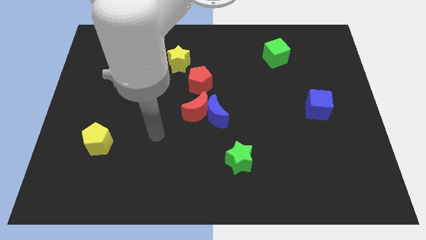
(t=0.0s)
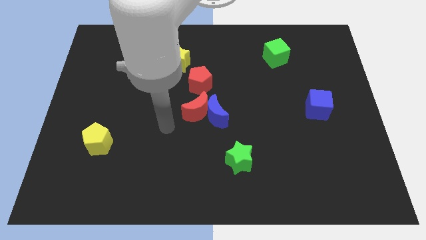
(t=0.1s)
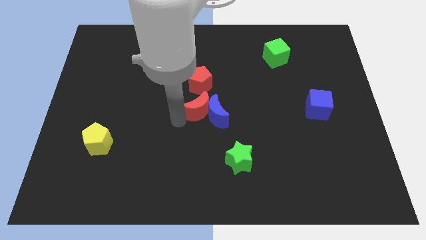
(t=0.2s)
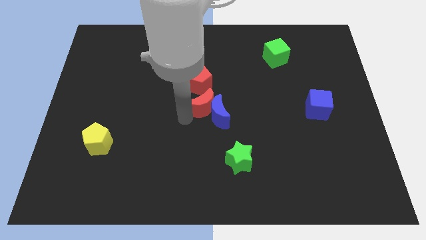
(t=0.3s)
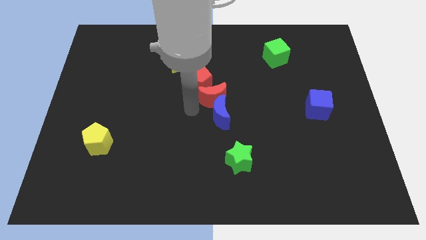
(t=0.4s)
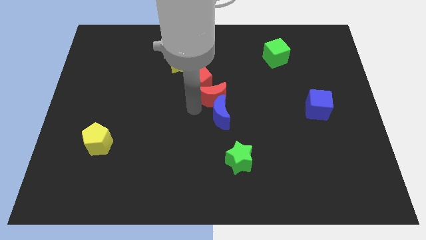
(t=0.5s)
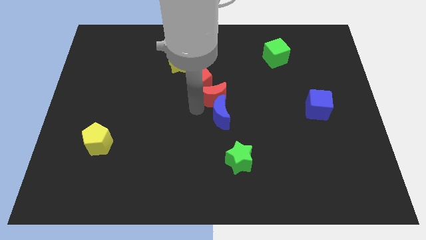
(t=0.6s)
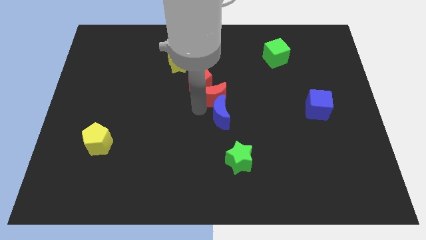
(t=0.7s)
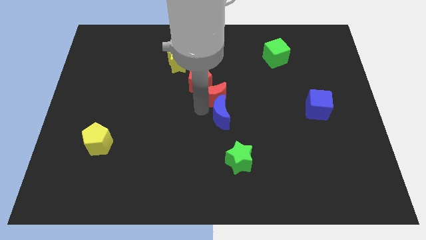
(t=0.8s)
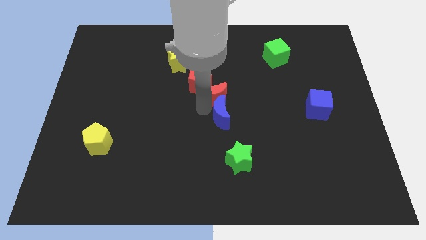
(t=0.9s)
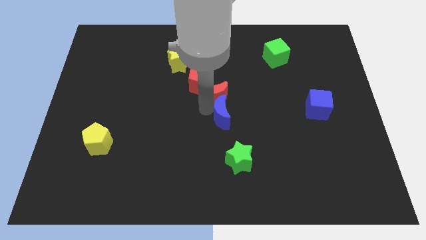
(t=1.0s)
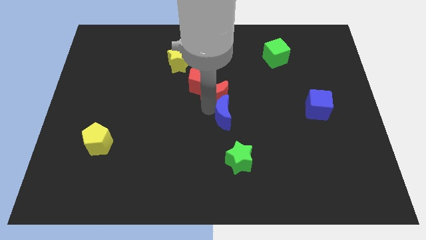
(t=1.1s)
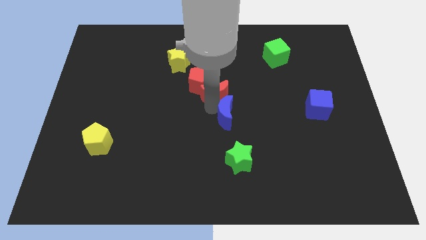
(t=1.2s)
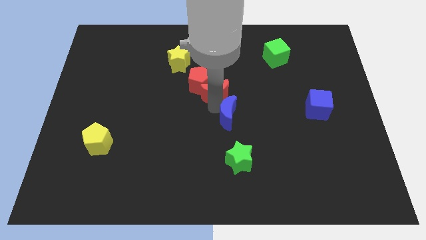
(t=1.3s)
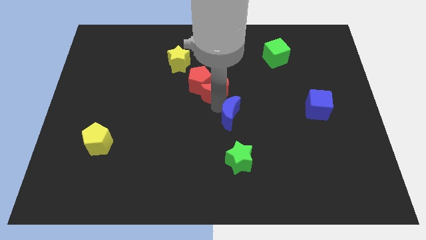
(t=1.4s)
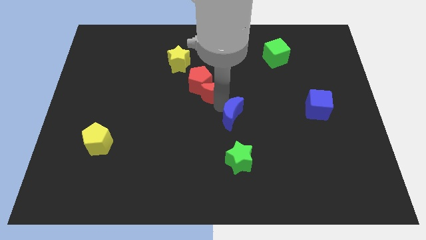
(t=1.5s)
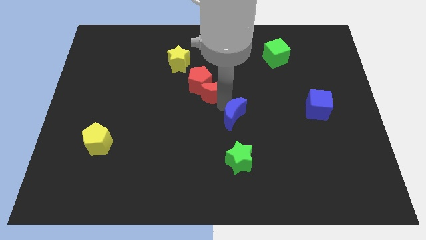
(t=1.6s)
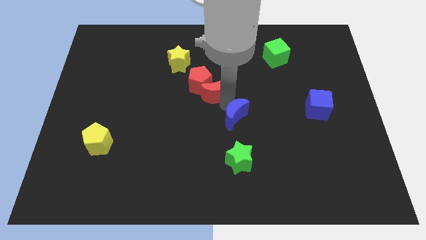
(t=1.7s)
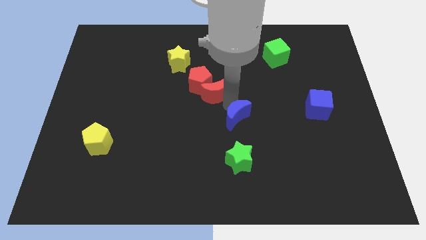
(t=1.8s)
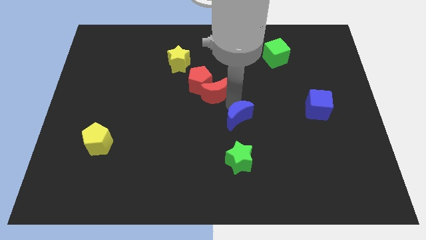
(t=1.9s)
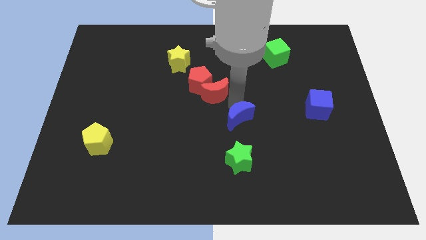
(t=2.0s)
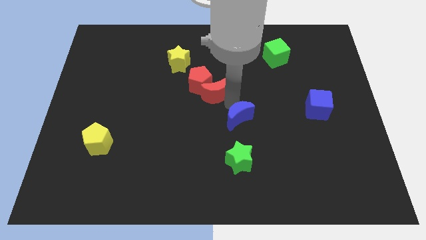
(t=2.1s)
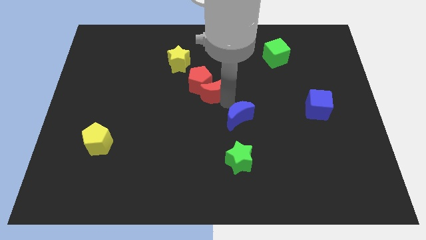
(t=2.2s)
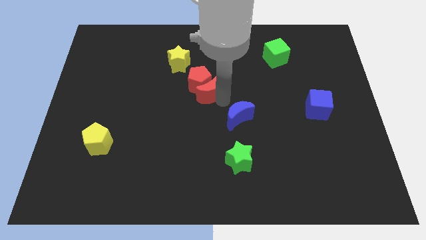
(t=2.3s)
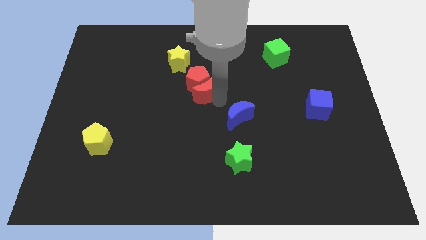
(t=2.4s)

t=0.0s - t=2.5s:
separate the blue moon from the red moon

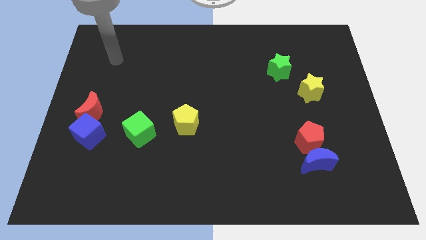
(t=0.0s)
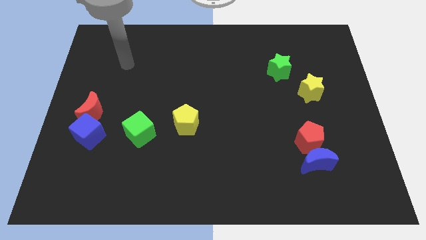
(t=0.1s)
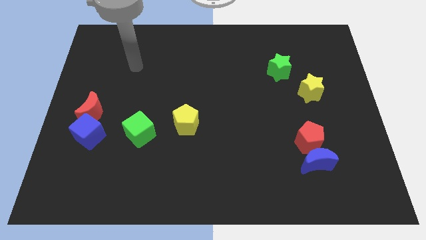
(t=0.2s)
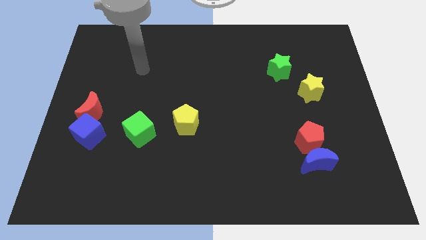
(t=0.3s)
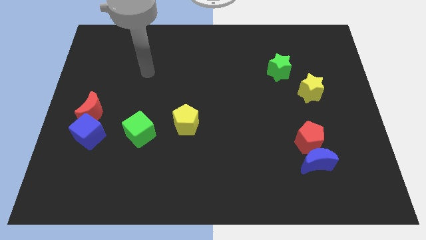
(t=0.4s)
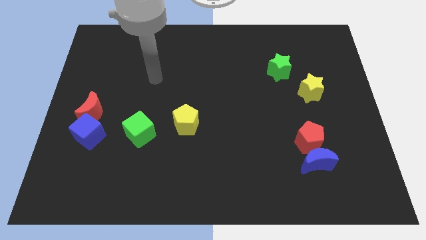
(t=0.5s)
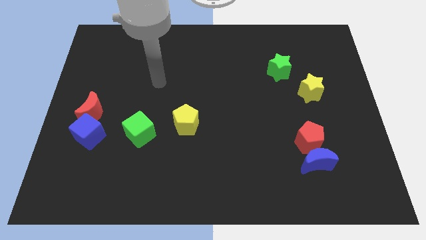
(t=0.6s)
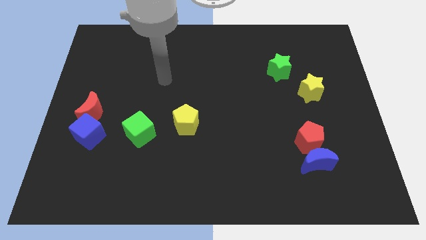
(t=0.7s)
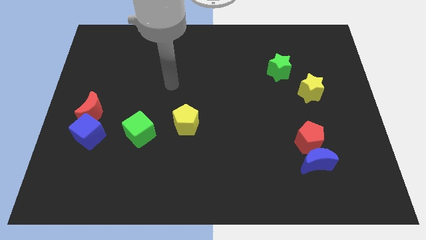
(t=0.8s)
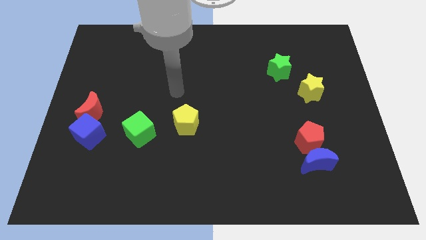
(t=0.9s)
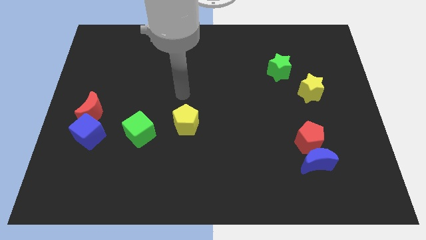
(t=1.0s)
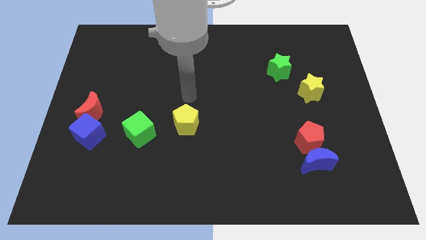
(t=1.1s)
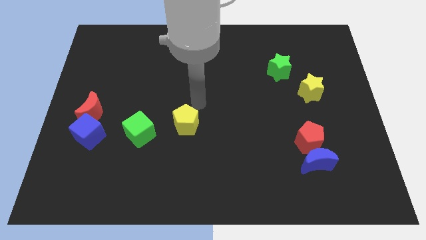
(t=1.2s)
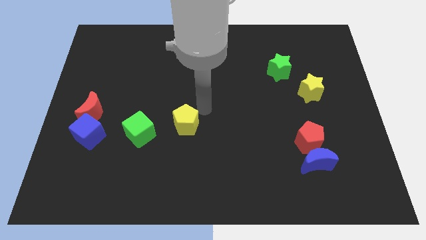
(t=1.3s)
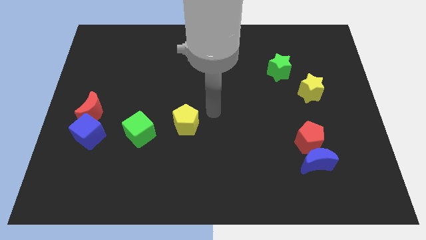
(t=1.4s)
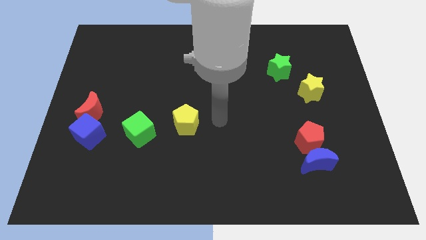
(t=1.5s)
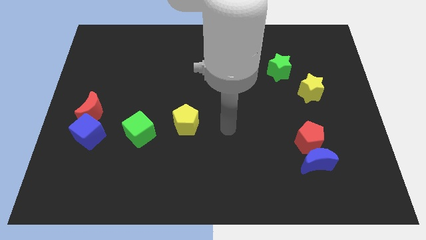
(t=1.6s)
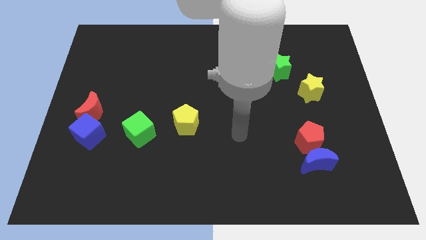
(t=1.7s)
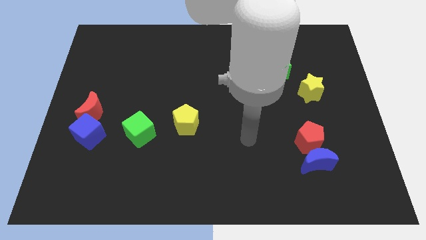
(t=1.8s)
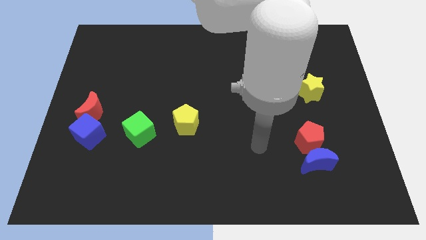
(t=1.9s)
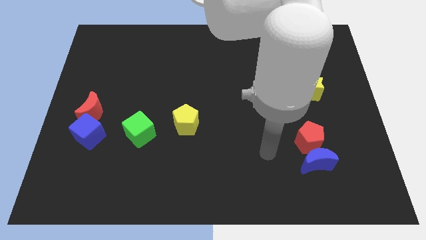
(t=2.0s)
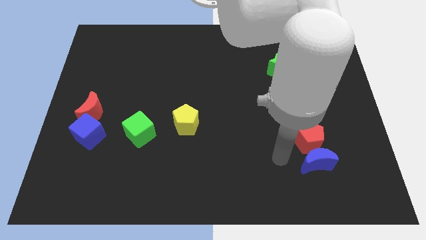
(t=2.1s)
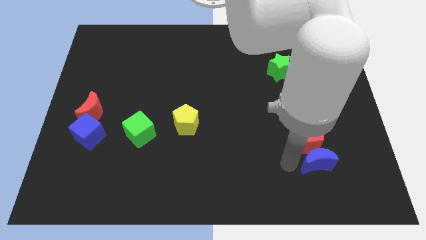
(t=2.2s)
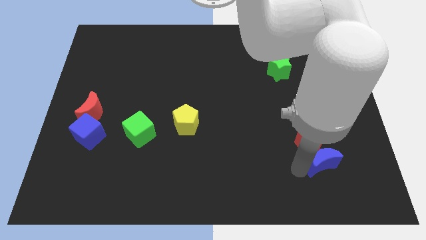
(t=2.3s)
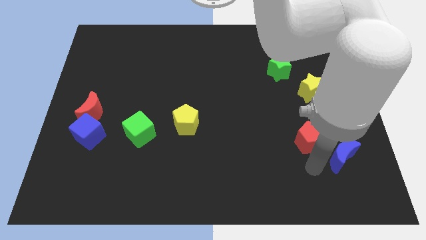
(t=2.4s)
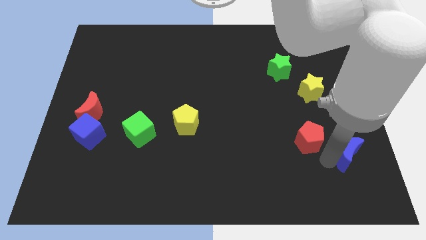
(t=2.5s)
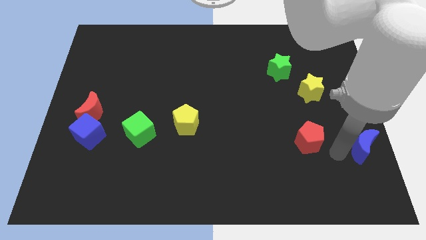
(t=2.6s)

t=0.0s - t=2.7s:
pull the red pentagon apart from the blue moon

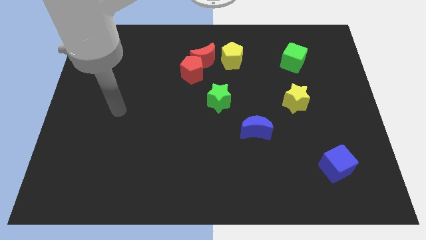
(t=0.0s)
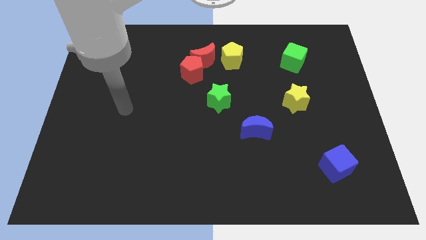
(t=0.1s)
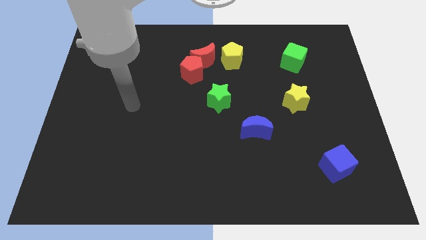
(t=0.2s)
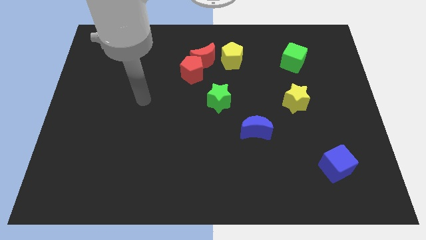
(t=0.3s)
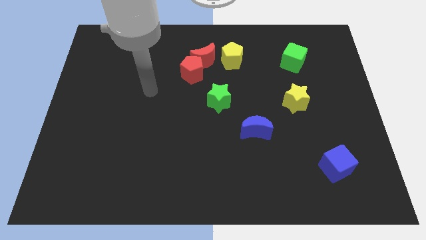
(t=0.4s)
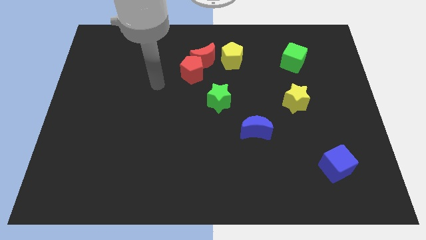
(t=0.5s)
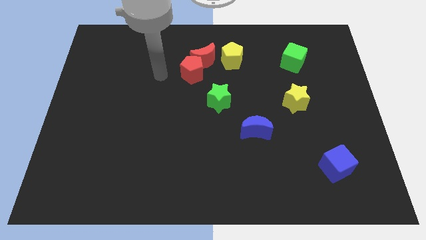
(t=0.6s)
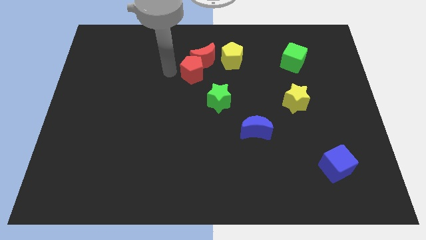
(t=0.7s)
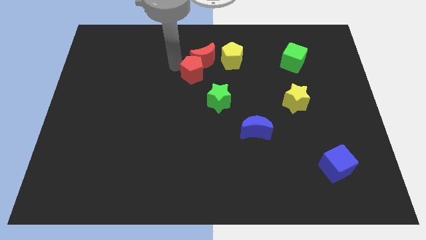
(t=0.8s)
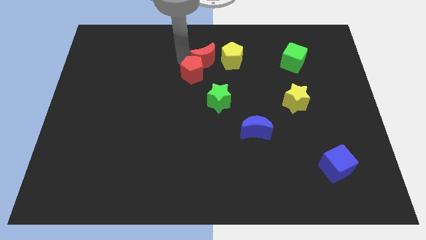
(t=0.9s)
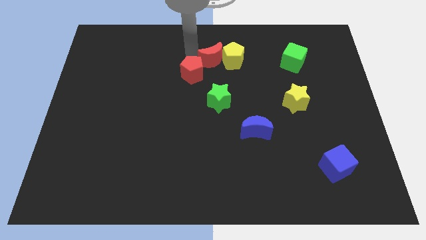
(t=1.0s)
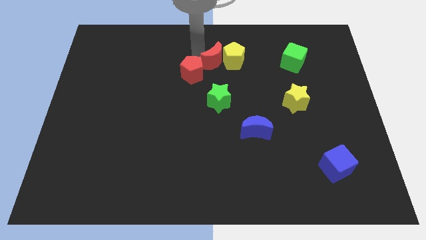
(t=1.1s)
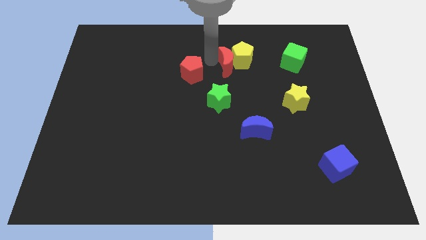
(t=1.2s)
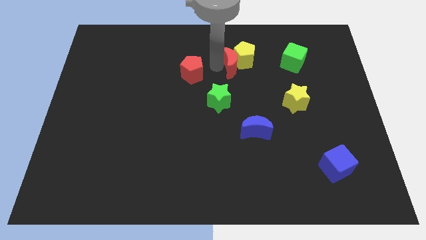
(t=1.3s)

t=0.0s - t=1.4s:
separate the red pentagon from the red moon

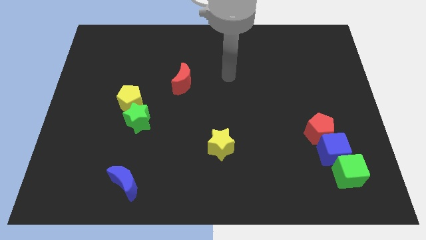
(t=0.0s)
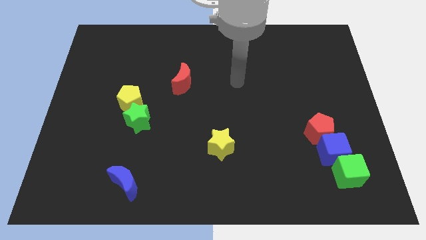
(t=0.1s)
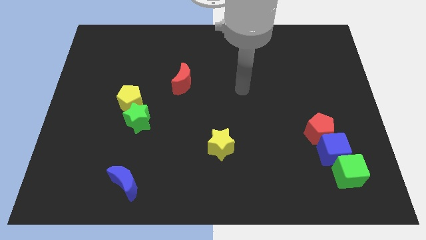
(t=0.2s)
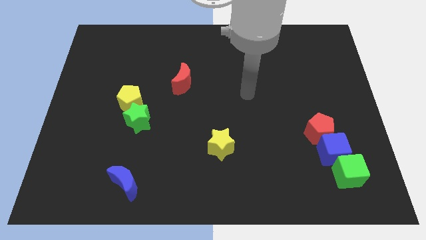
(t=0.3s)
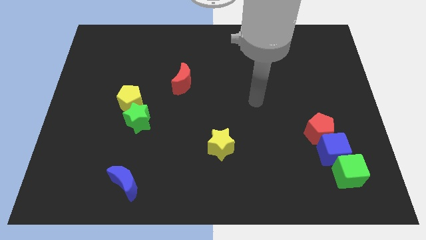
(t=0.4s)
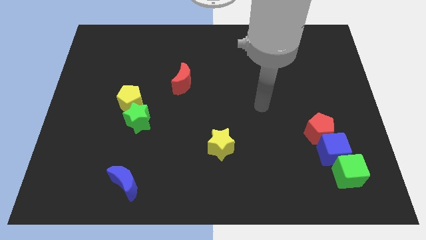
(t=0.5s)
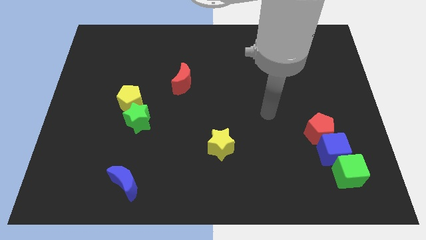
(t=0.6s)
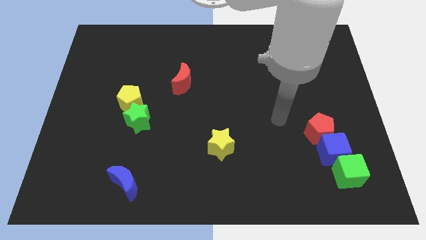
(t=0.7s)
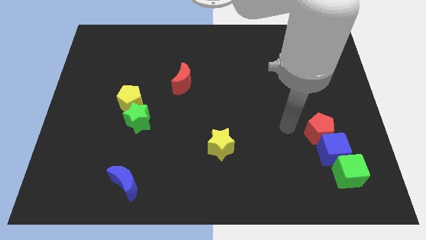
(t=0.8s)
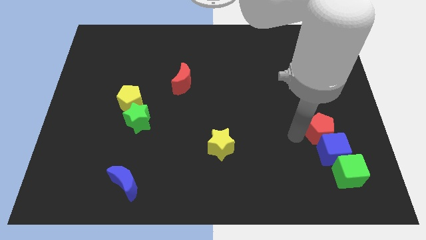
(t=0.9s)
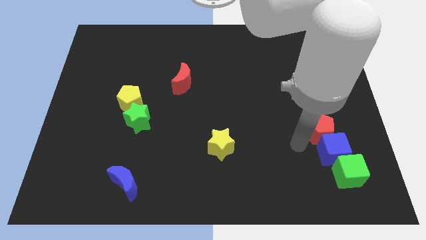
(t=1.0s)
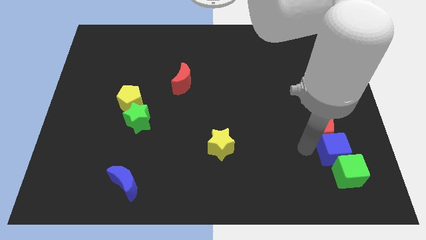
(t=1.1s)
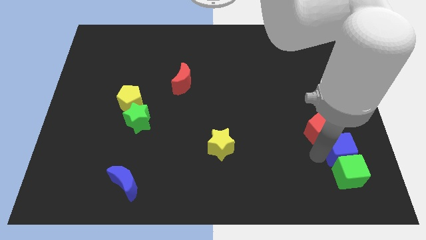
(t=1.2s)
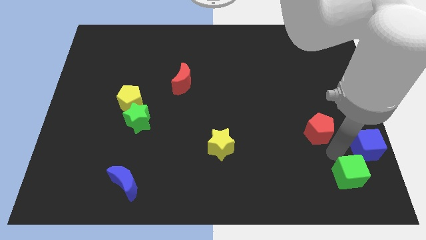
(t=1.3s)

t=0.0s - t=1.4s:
separate the red pentagon from the blue cube

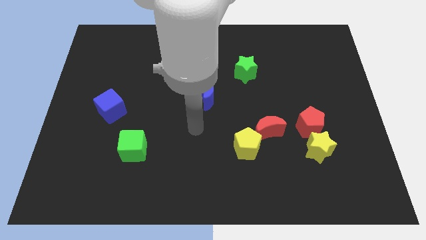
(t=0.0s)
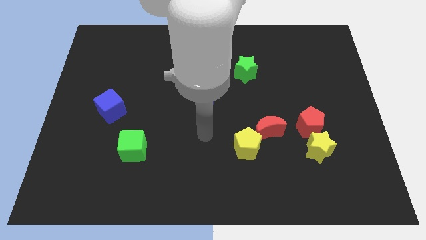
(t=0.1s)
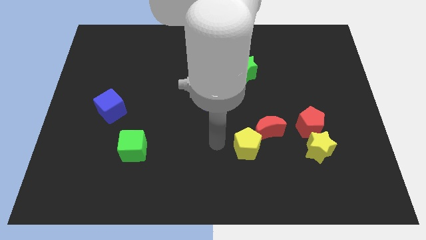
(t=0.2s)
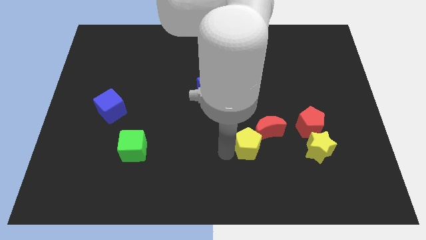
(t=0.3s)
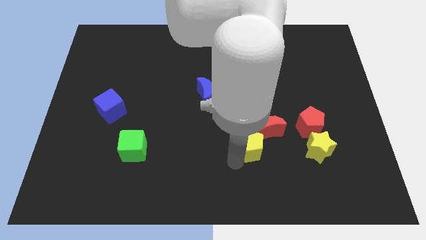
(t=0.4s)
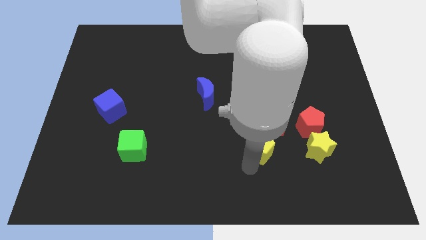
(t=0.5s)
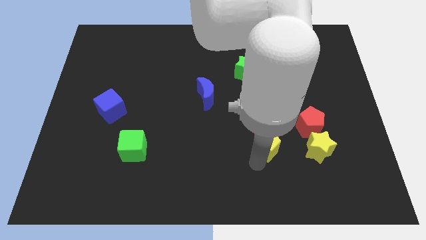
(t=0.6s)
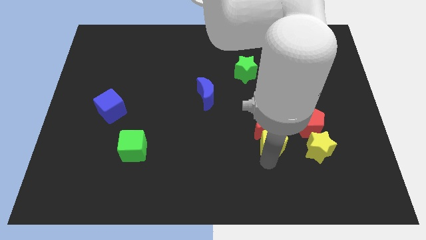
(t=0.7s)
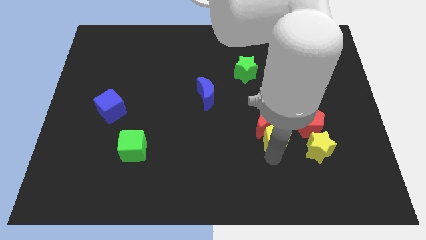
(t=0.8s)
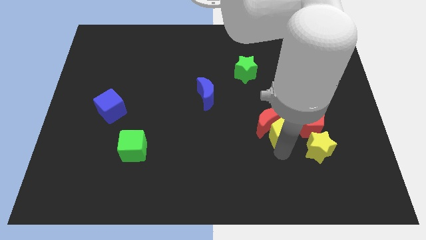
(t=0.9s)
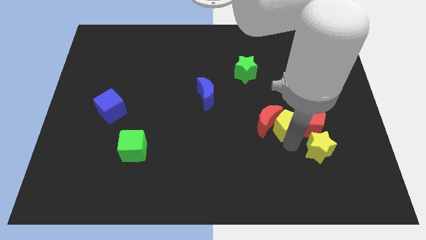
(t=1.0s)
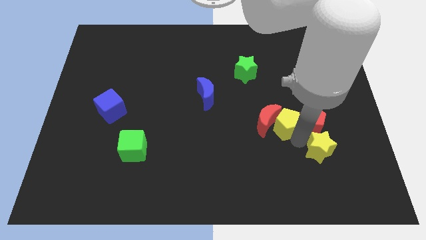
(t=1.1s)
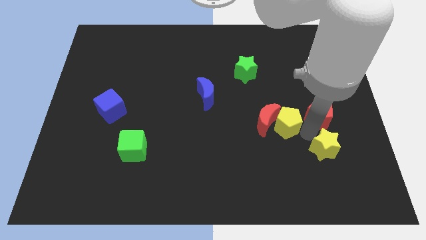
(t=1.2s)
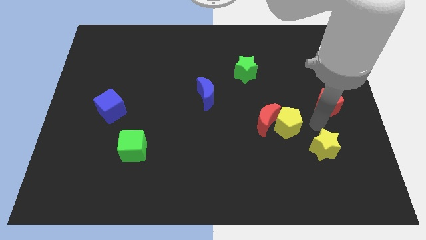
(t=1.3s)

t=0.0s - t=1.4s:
separate the yellow star from the red pentagon
